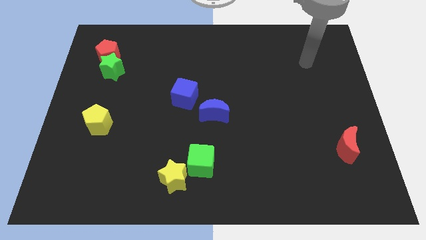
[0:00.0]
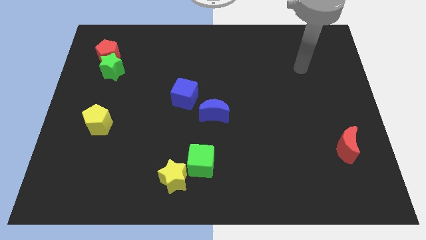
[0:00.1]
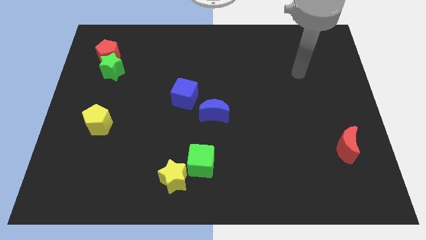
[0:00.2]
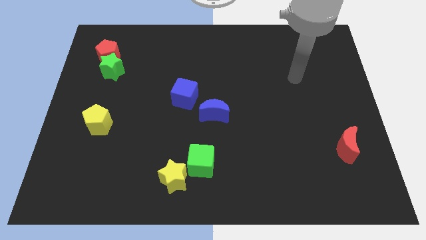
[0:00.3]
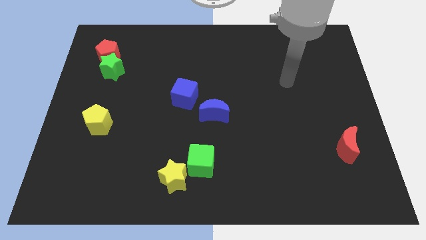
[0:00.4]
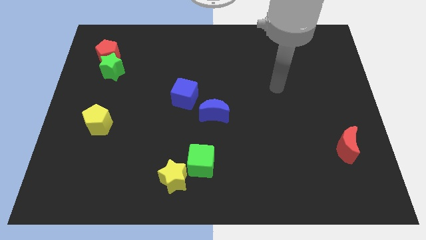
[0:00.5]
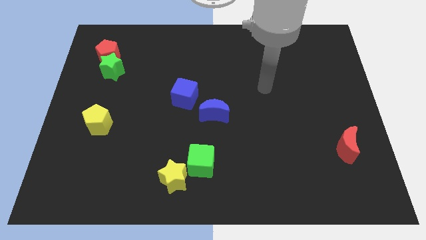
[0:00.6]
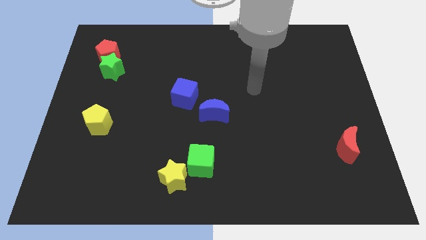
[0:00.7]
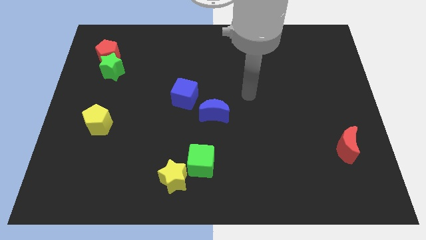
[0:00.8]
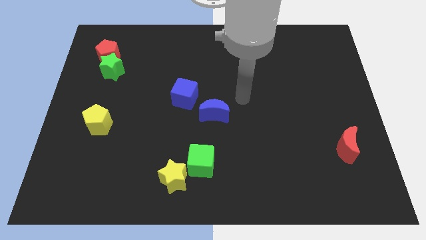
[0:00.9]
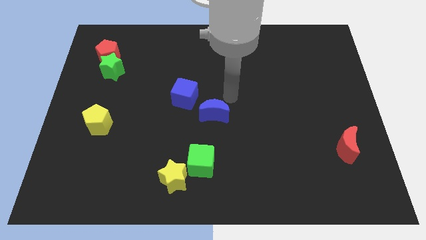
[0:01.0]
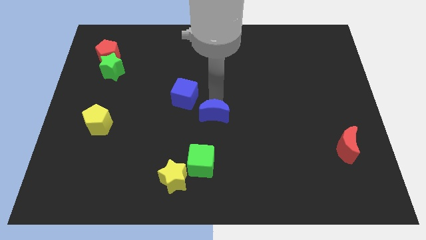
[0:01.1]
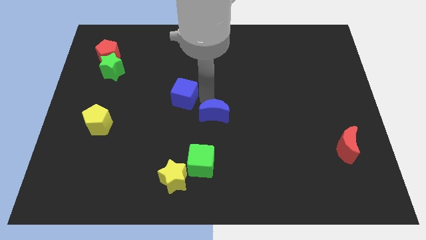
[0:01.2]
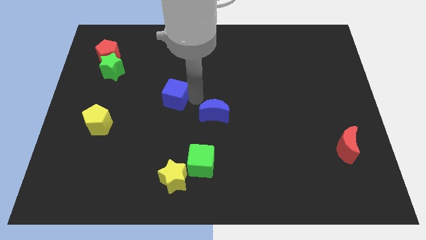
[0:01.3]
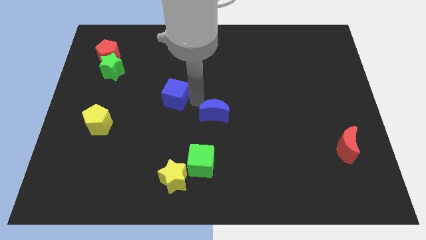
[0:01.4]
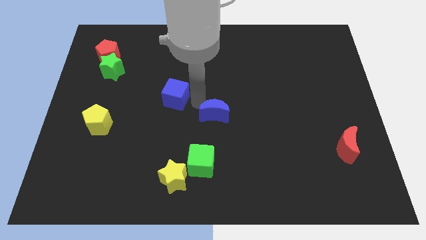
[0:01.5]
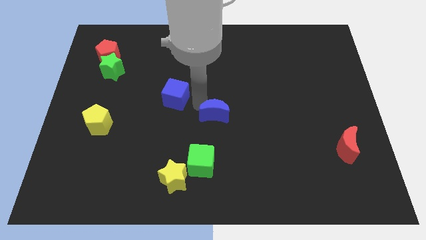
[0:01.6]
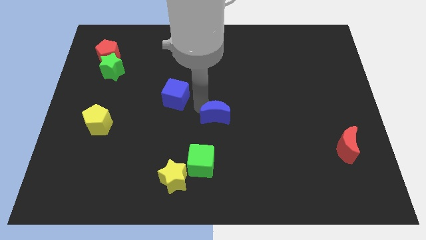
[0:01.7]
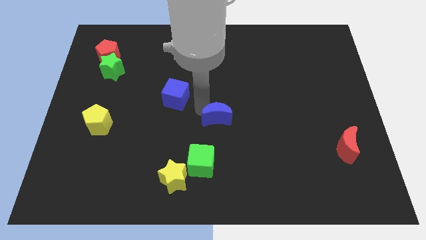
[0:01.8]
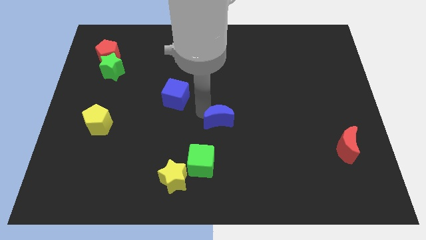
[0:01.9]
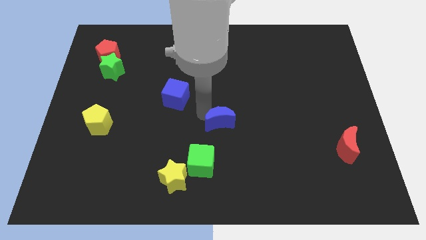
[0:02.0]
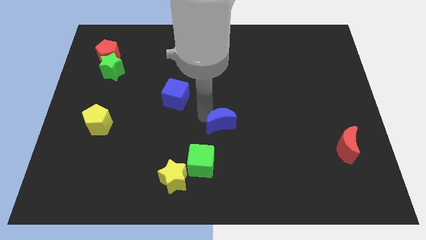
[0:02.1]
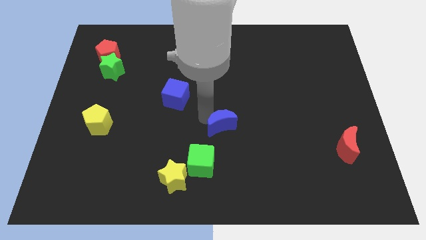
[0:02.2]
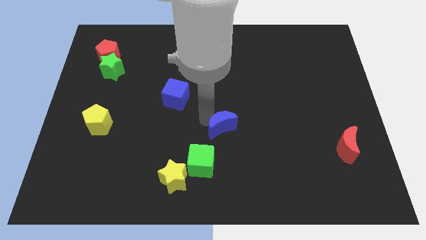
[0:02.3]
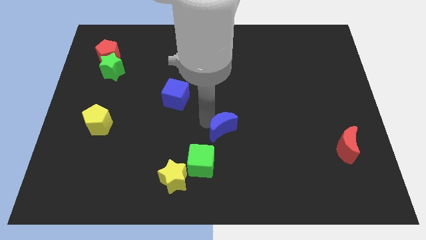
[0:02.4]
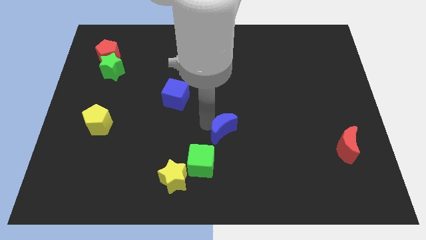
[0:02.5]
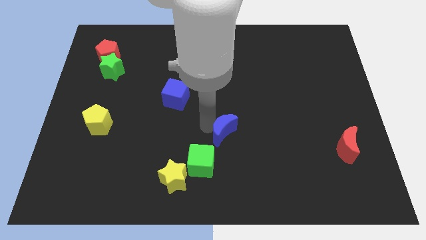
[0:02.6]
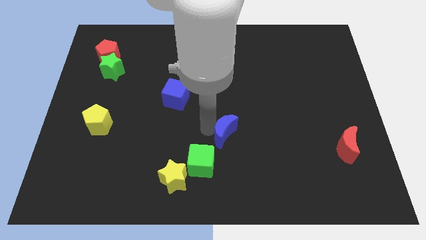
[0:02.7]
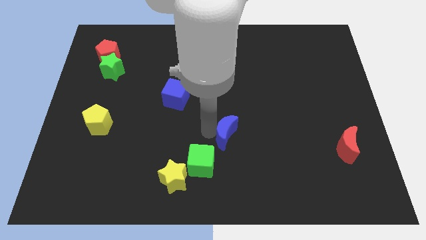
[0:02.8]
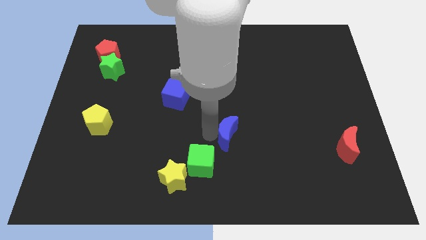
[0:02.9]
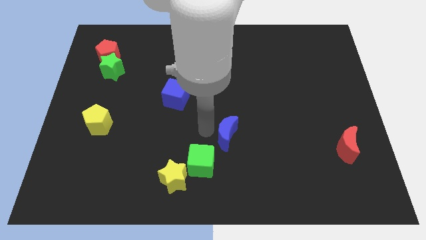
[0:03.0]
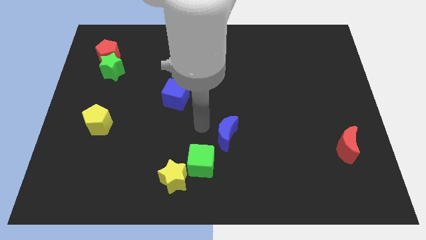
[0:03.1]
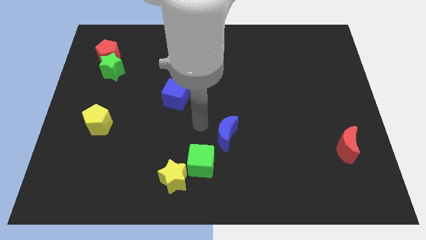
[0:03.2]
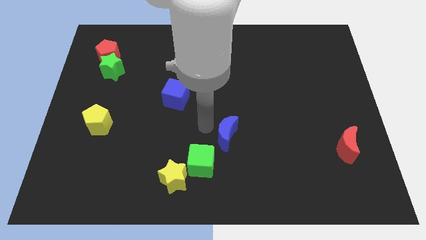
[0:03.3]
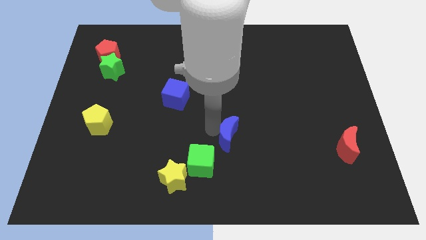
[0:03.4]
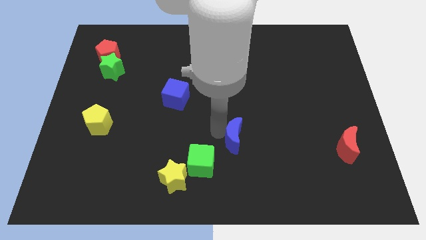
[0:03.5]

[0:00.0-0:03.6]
slide the blue moon down and right diagonally a bit

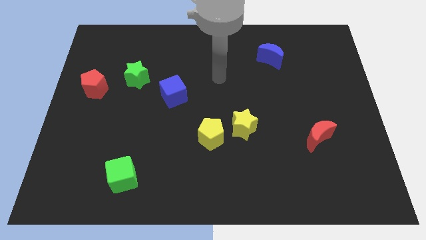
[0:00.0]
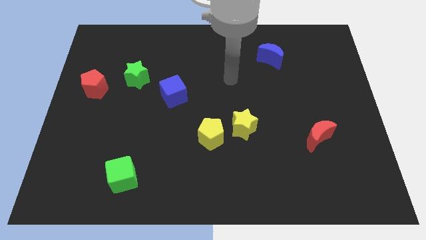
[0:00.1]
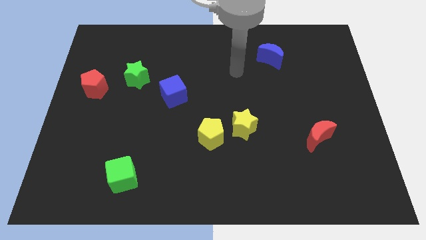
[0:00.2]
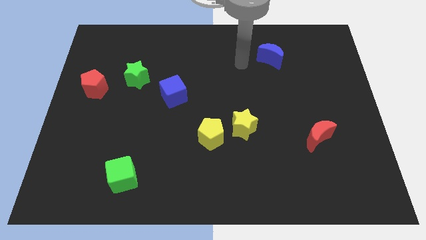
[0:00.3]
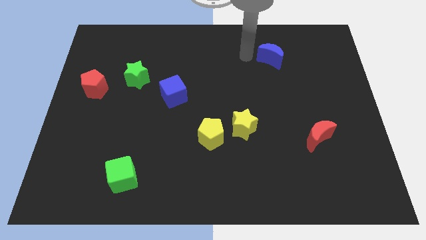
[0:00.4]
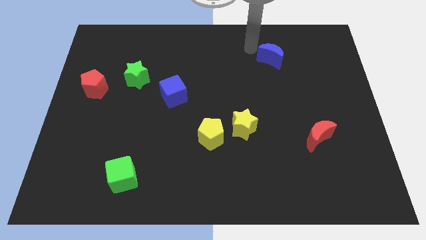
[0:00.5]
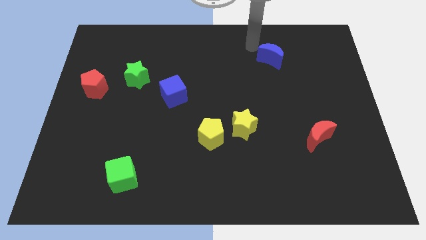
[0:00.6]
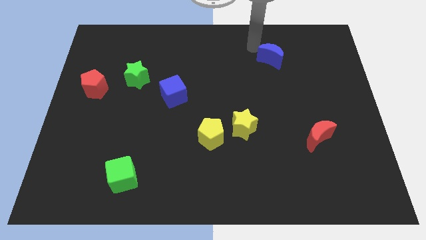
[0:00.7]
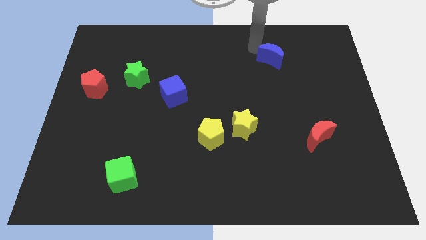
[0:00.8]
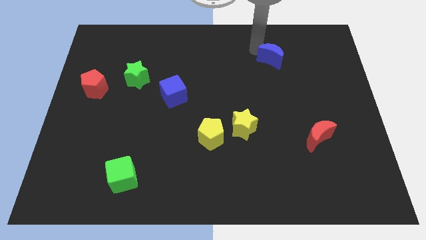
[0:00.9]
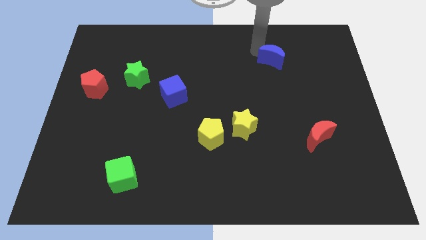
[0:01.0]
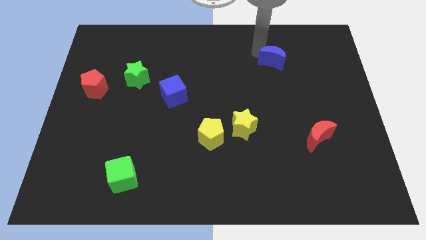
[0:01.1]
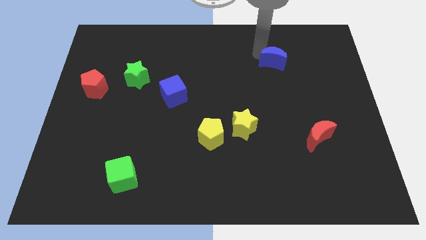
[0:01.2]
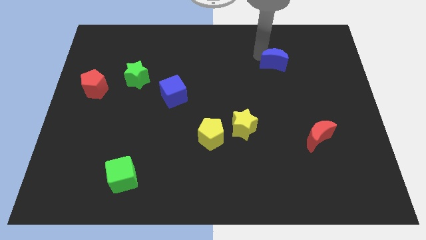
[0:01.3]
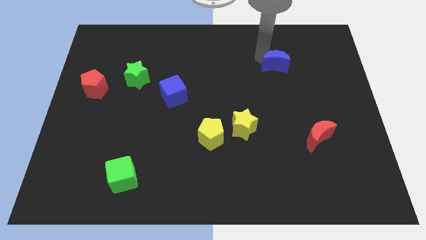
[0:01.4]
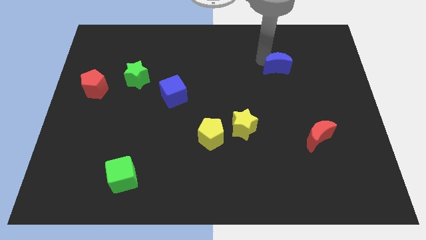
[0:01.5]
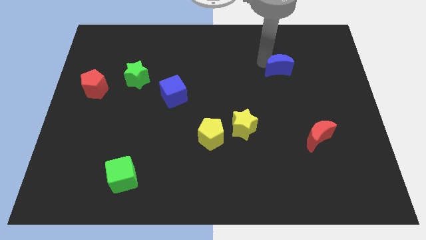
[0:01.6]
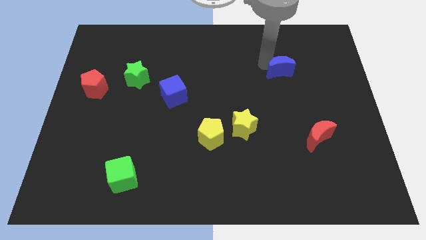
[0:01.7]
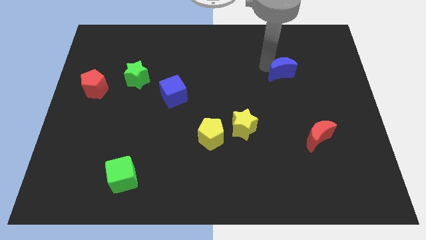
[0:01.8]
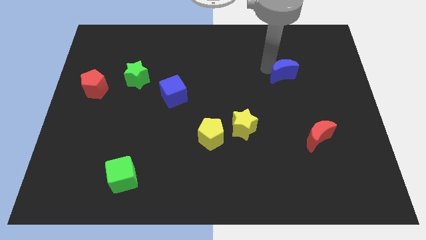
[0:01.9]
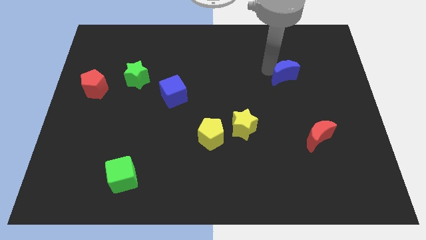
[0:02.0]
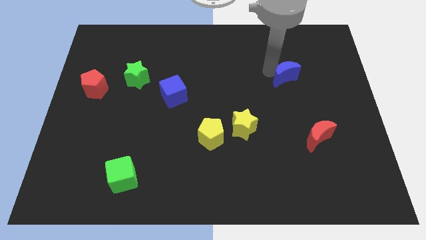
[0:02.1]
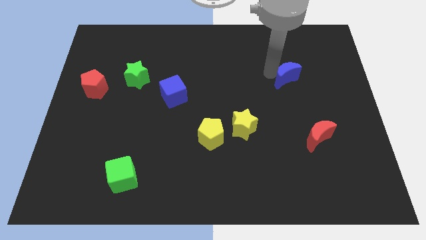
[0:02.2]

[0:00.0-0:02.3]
slide the blue moon downwards and right diagonally a little bit

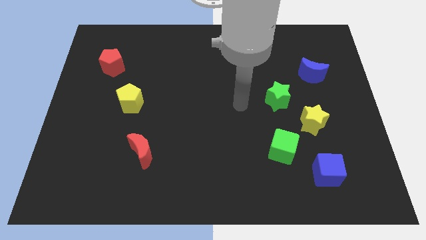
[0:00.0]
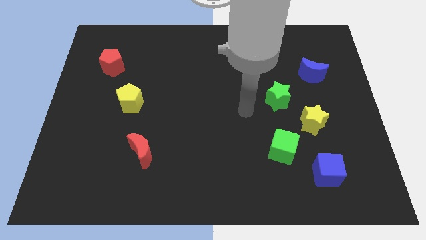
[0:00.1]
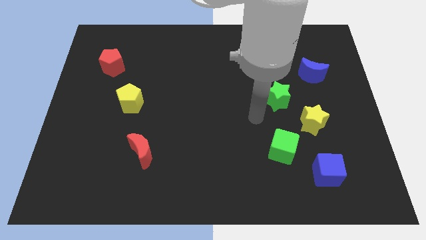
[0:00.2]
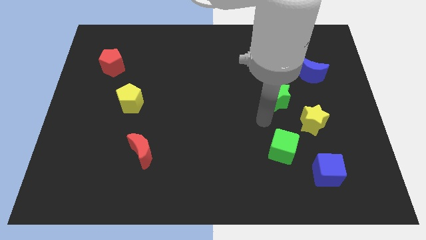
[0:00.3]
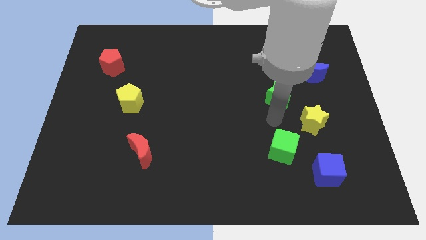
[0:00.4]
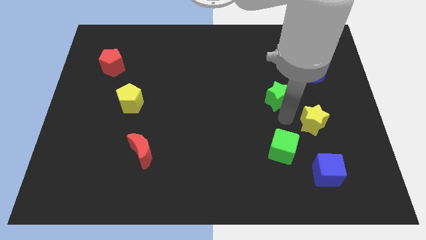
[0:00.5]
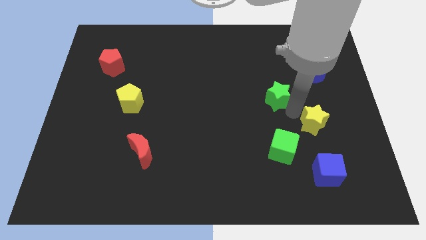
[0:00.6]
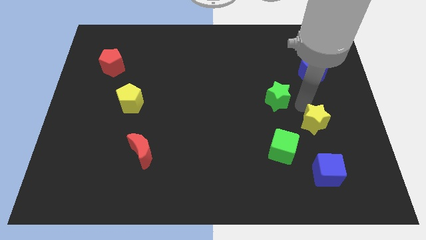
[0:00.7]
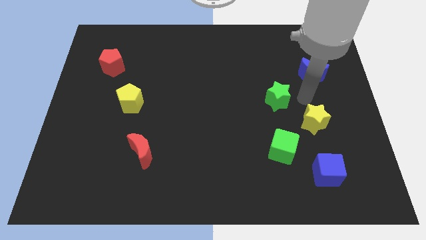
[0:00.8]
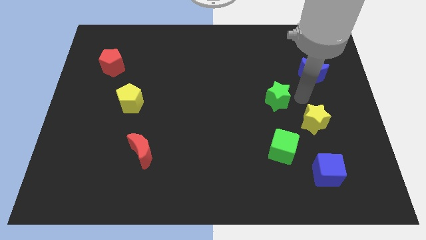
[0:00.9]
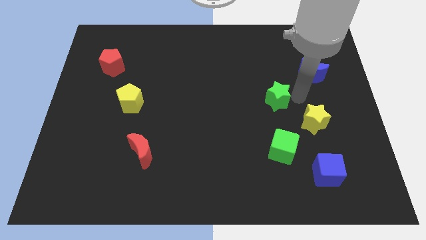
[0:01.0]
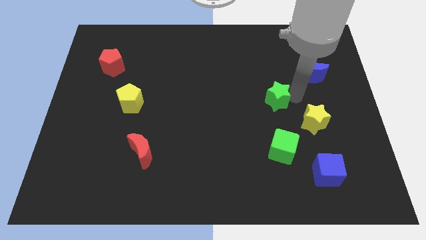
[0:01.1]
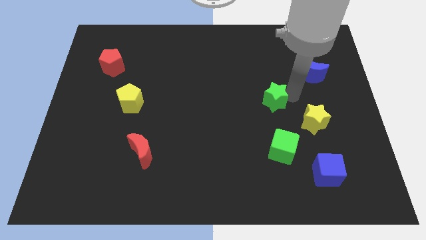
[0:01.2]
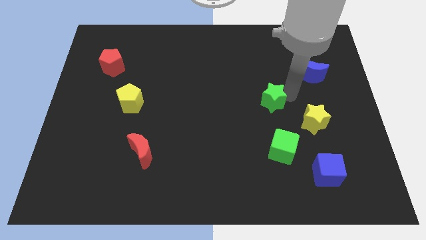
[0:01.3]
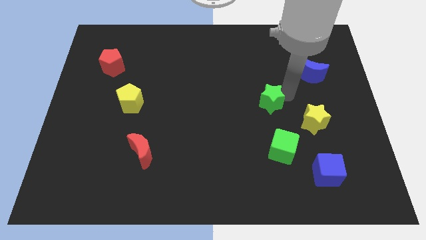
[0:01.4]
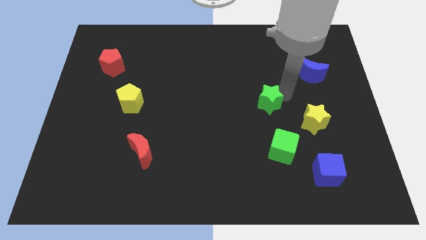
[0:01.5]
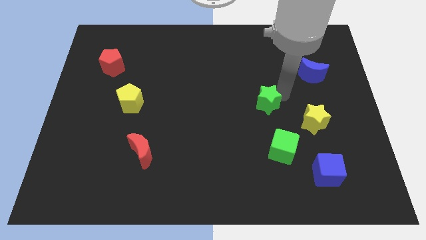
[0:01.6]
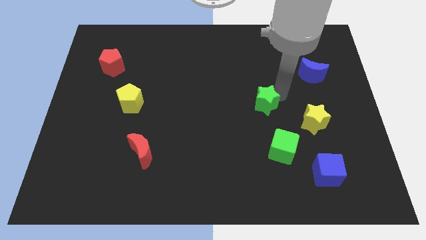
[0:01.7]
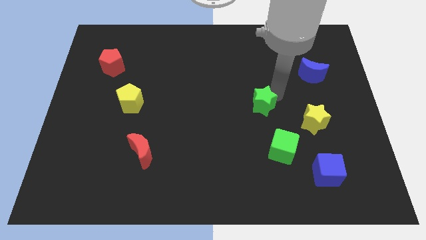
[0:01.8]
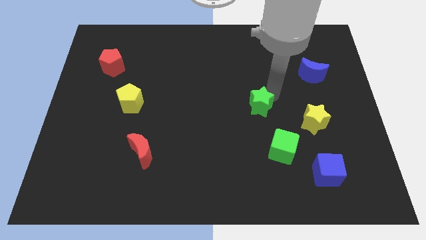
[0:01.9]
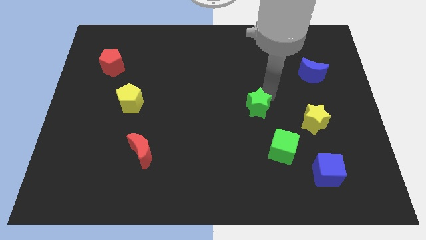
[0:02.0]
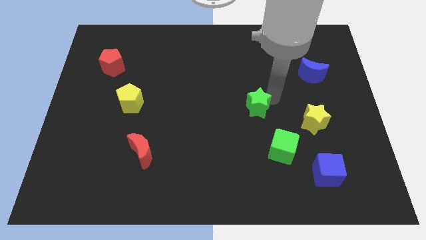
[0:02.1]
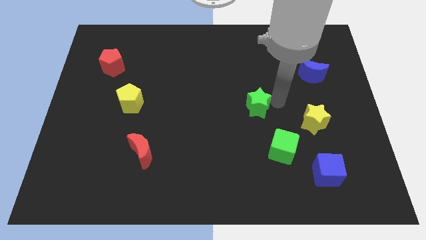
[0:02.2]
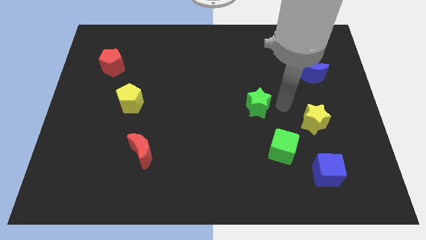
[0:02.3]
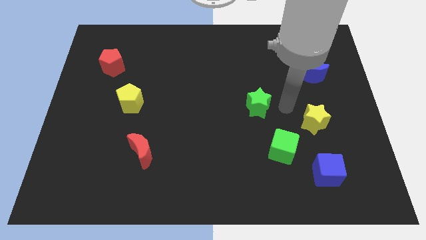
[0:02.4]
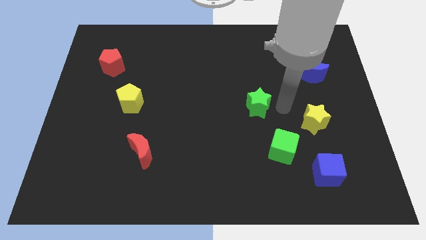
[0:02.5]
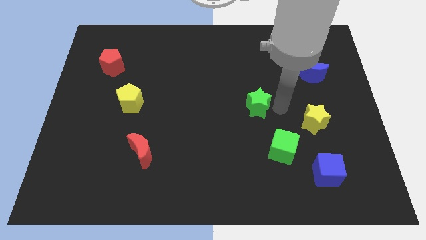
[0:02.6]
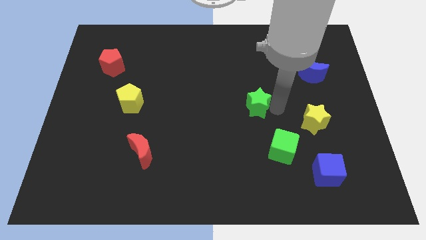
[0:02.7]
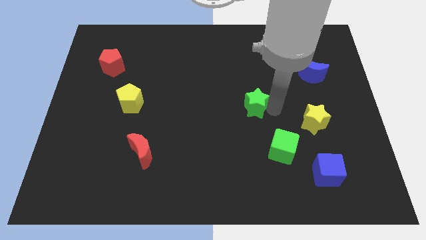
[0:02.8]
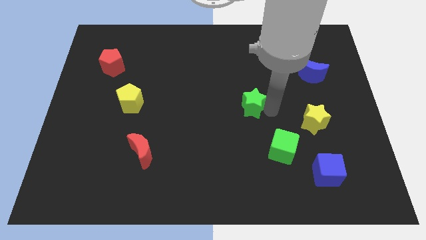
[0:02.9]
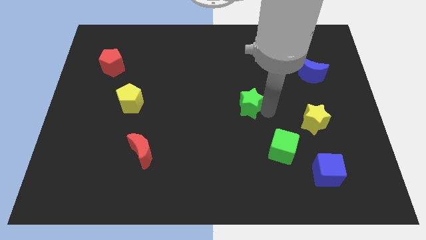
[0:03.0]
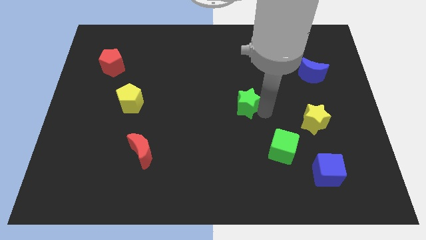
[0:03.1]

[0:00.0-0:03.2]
move the green star left a bit
